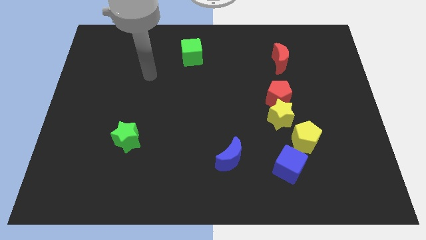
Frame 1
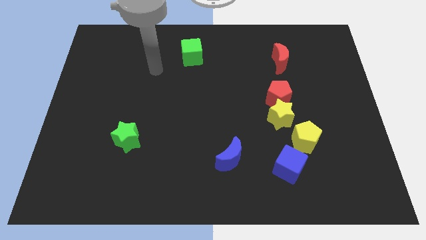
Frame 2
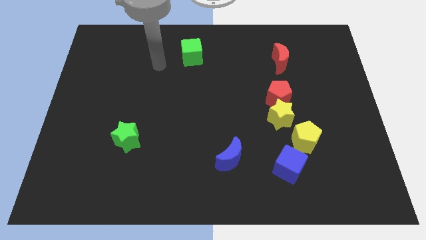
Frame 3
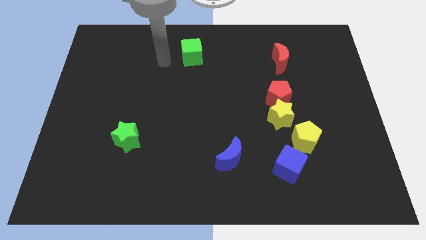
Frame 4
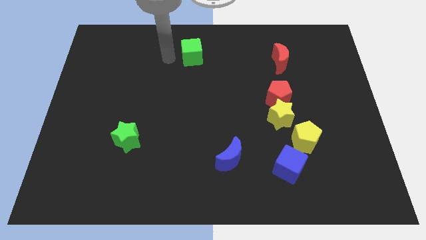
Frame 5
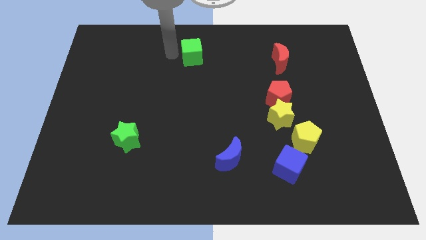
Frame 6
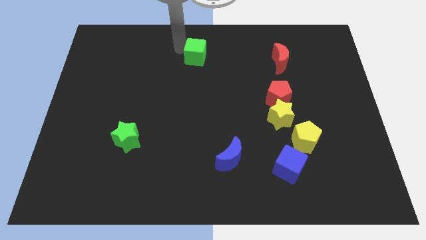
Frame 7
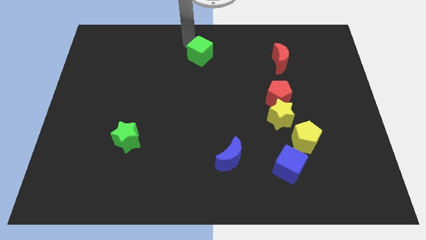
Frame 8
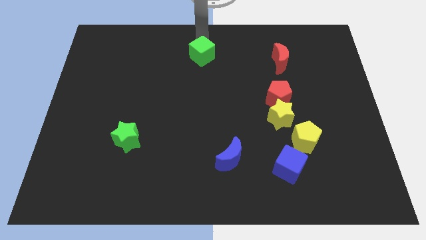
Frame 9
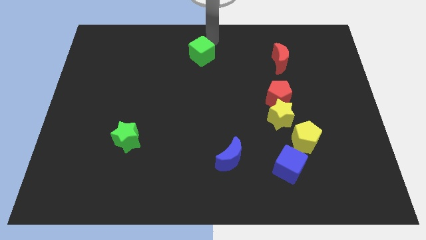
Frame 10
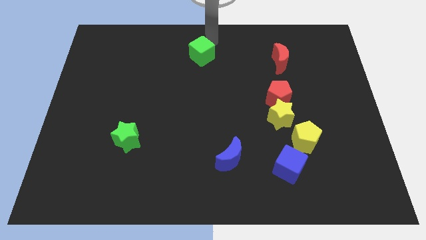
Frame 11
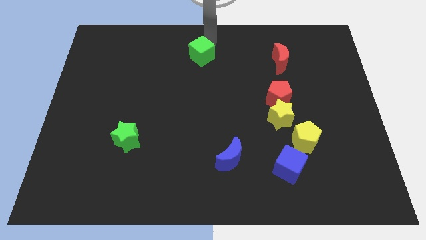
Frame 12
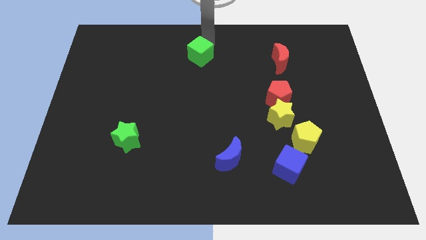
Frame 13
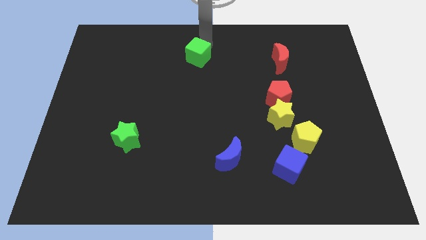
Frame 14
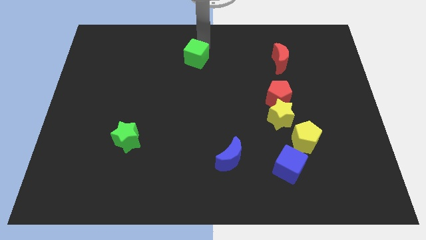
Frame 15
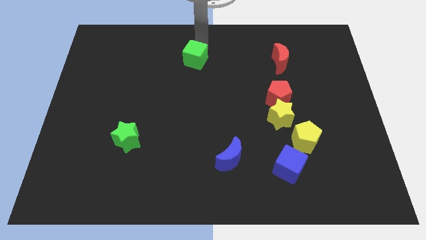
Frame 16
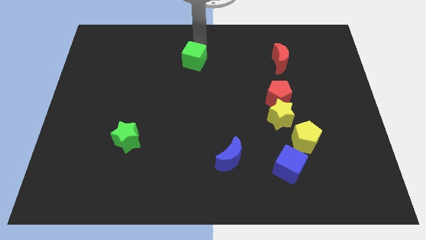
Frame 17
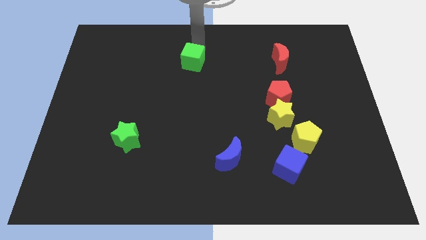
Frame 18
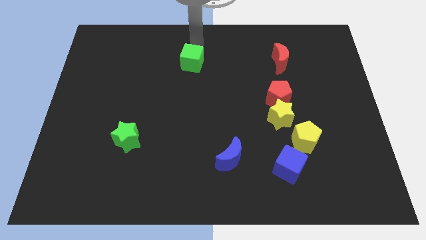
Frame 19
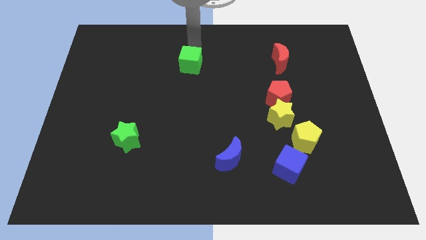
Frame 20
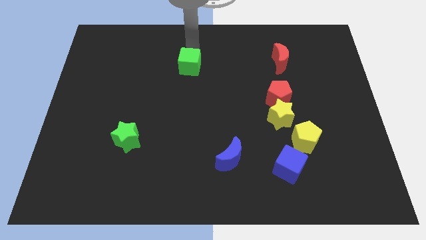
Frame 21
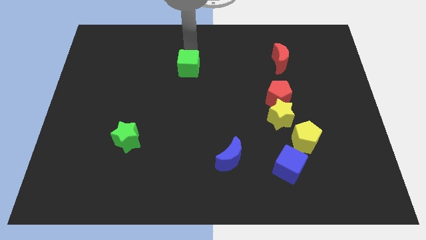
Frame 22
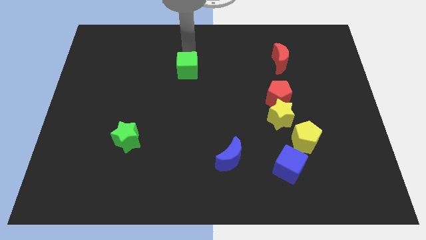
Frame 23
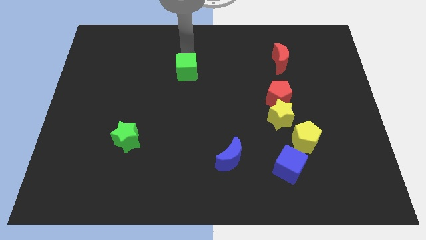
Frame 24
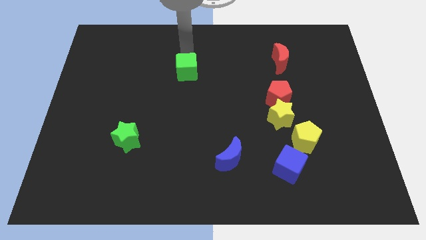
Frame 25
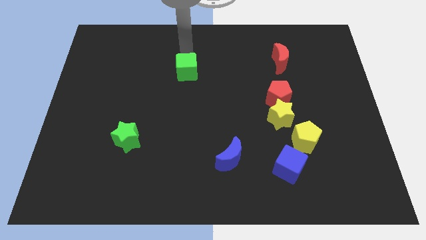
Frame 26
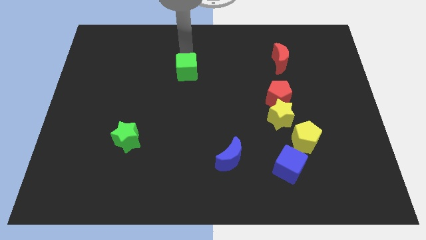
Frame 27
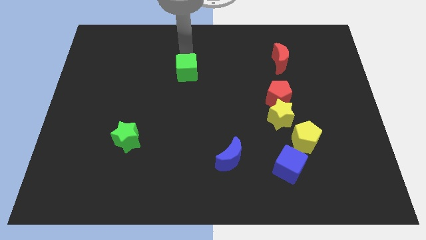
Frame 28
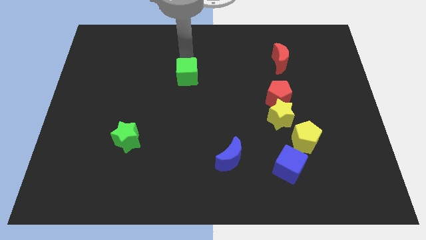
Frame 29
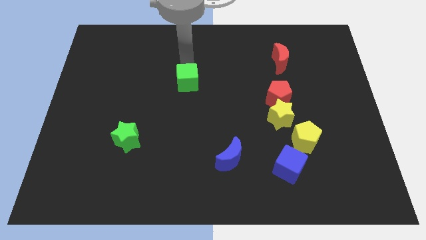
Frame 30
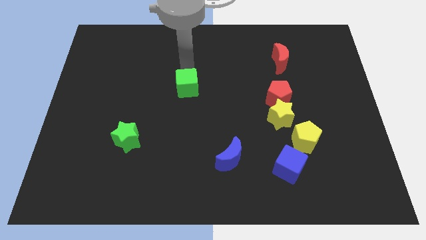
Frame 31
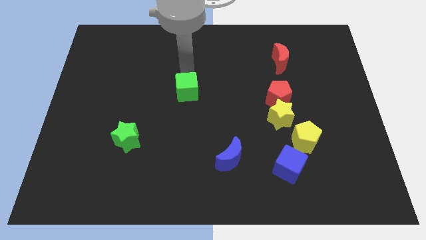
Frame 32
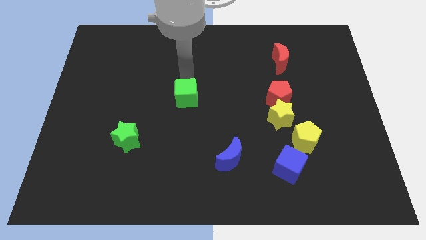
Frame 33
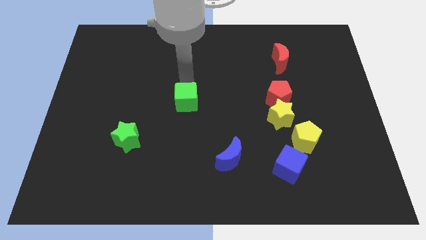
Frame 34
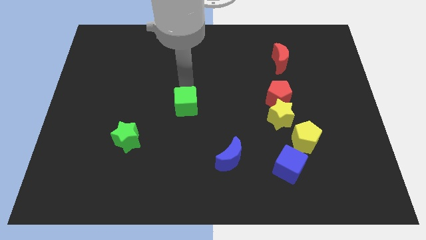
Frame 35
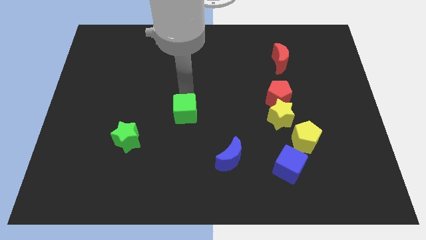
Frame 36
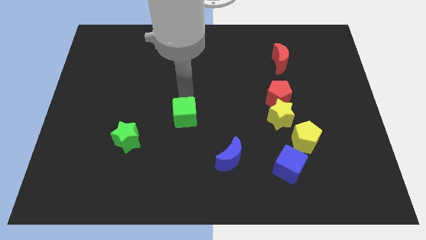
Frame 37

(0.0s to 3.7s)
move the green cube downwards

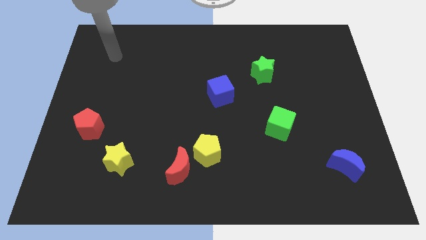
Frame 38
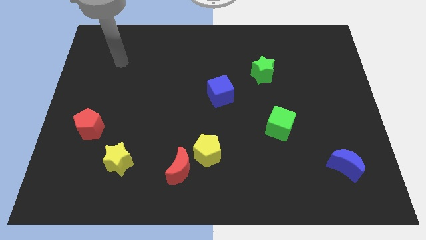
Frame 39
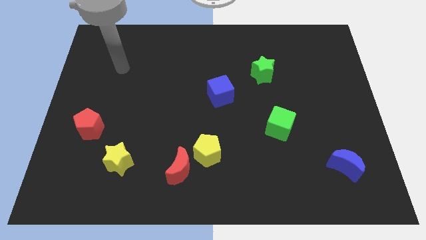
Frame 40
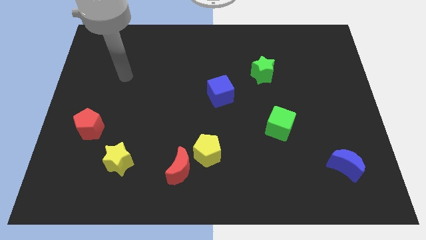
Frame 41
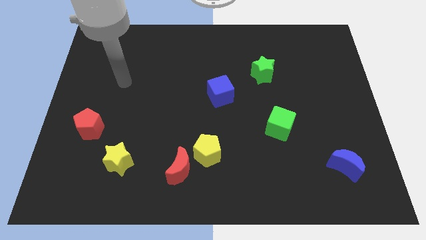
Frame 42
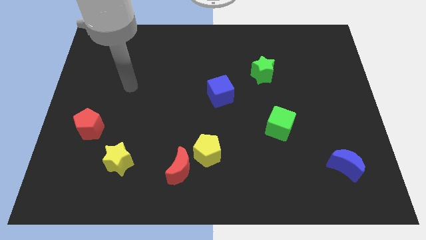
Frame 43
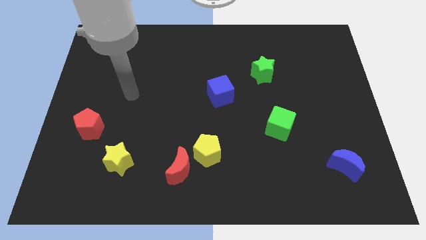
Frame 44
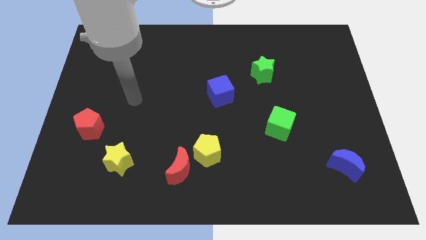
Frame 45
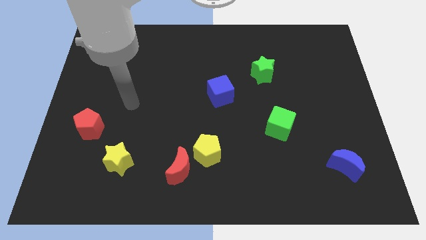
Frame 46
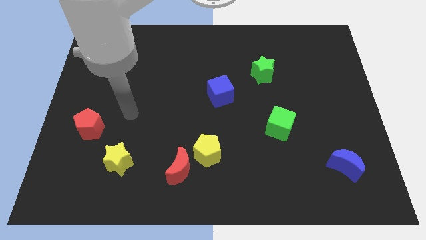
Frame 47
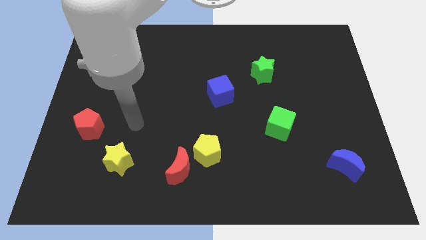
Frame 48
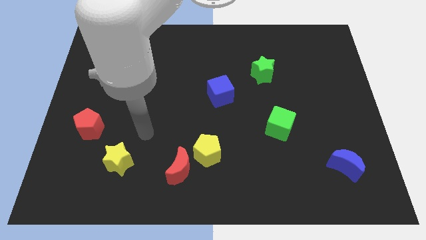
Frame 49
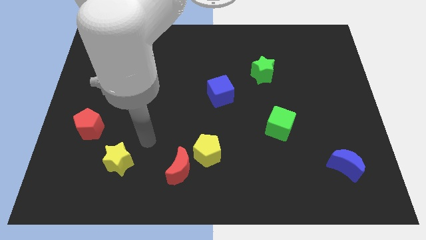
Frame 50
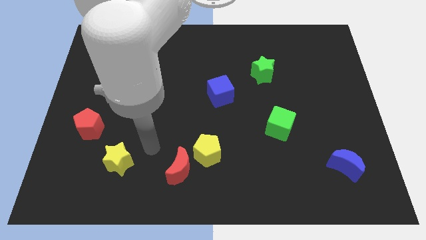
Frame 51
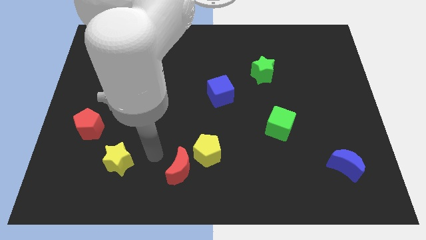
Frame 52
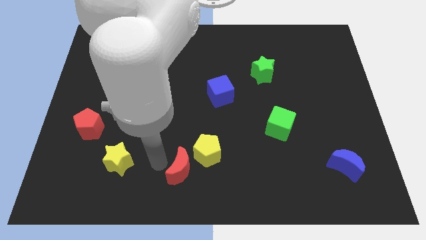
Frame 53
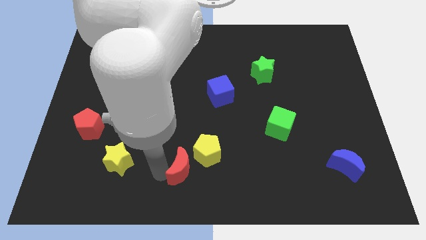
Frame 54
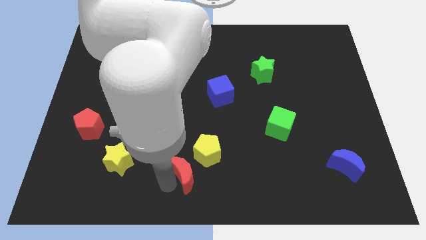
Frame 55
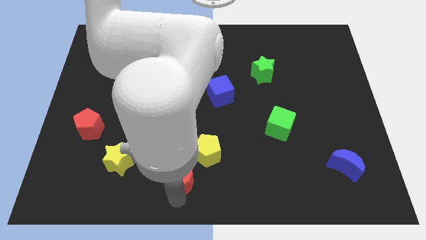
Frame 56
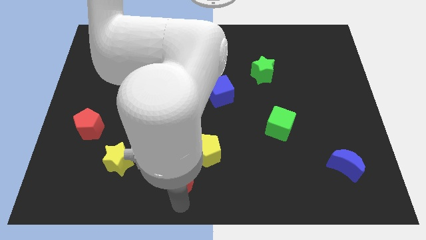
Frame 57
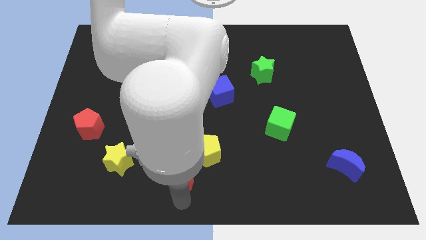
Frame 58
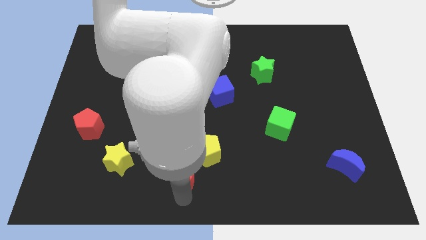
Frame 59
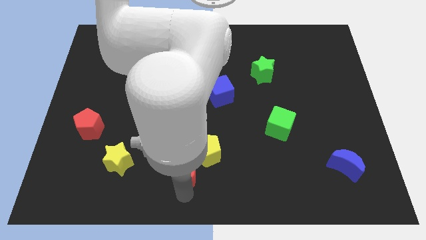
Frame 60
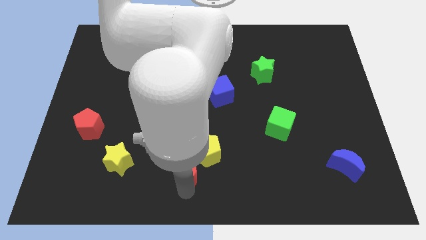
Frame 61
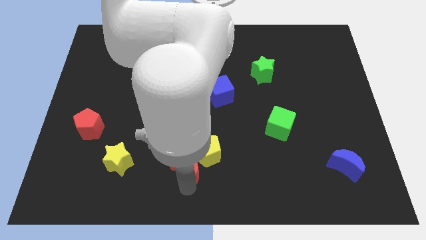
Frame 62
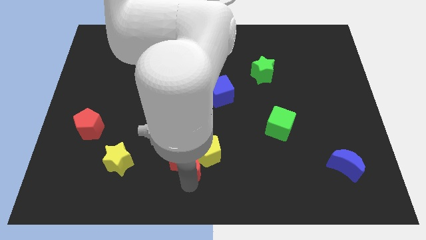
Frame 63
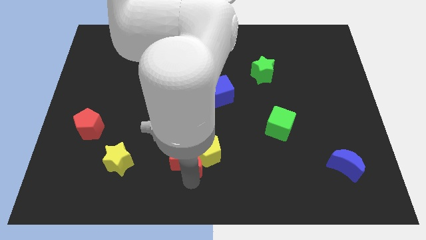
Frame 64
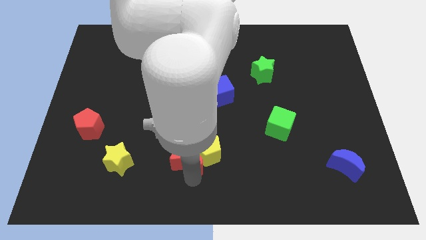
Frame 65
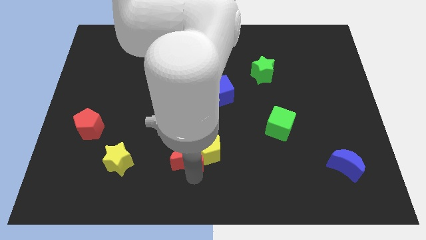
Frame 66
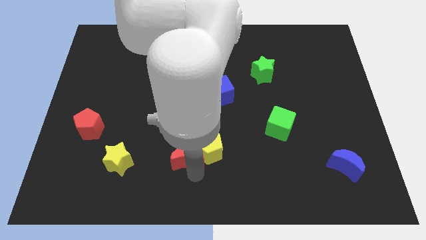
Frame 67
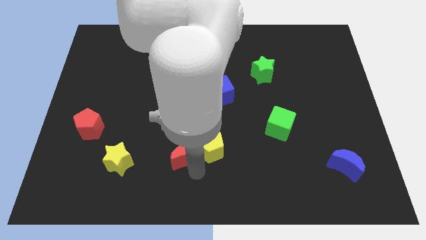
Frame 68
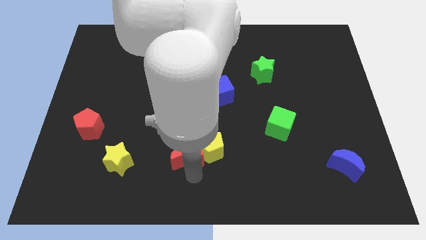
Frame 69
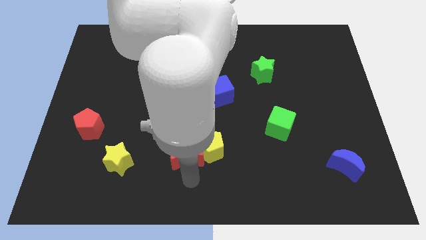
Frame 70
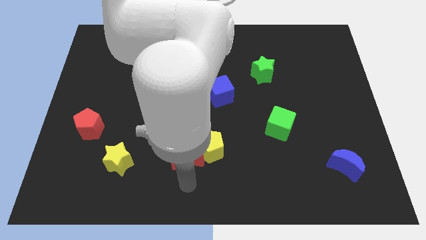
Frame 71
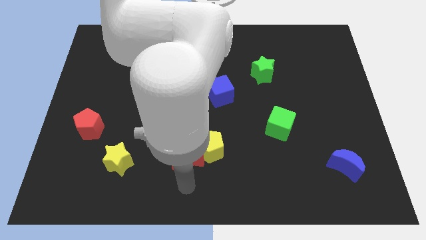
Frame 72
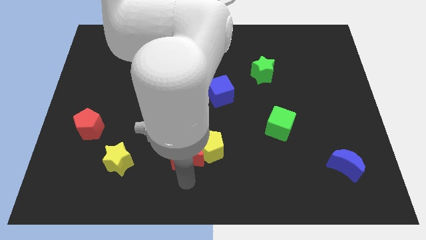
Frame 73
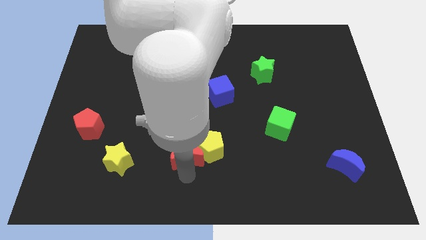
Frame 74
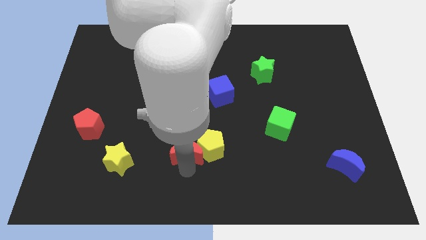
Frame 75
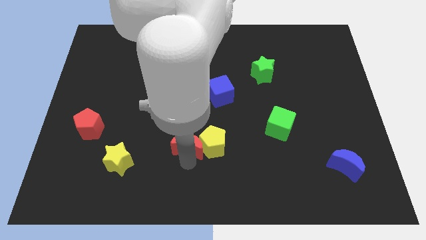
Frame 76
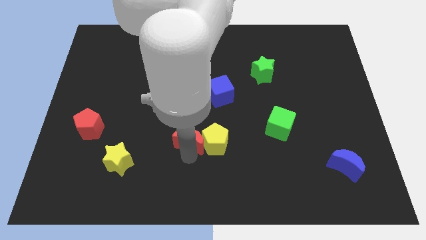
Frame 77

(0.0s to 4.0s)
slightly move the red moon upwards

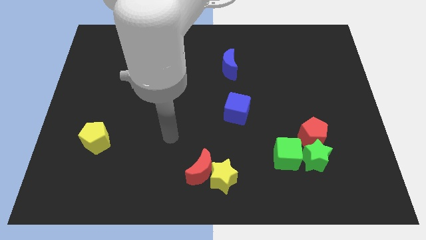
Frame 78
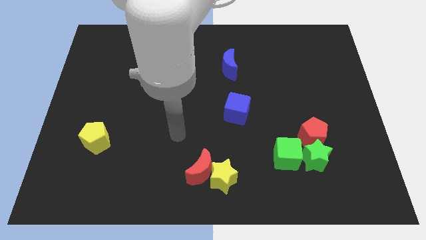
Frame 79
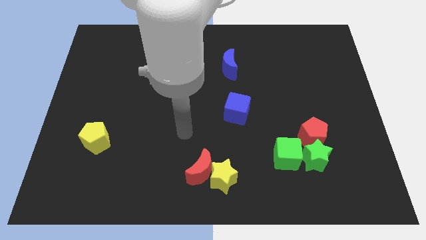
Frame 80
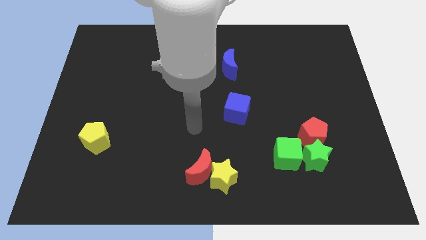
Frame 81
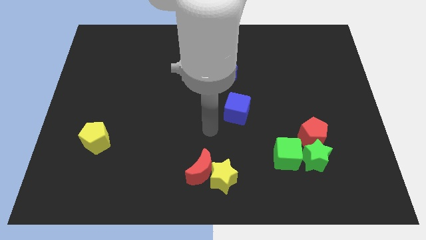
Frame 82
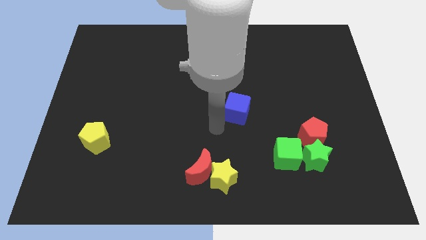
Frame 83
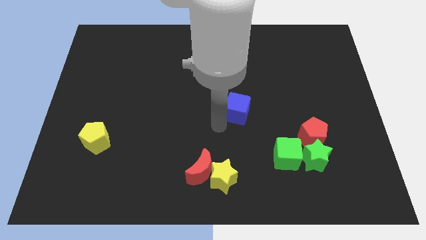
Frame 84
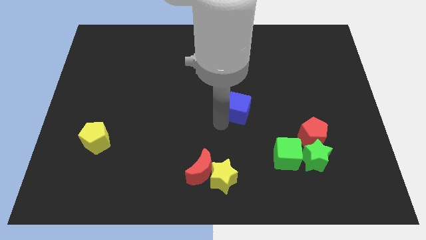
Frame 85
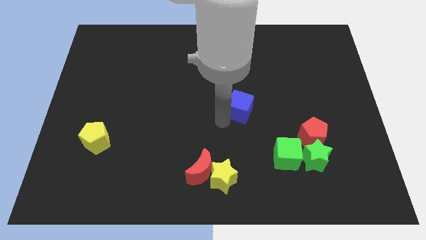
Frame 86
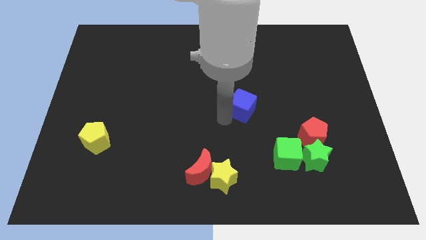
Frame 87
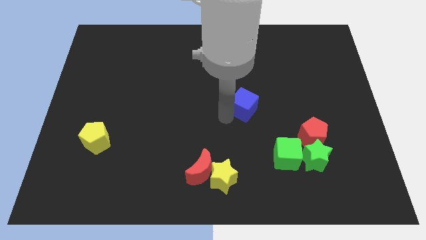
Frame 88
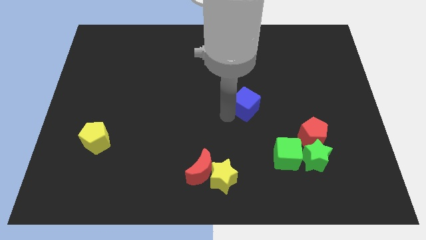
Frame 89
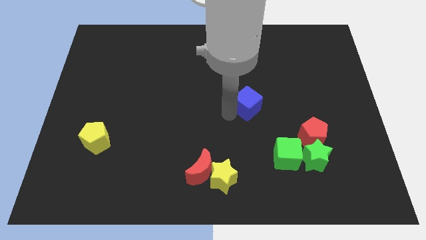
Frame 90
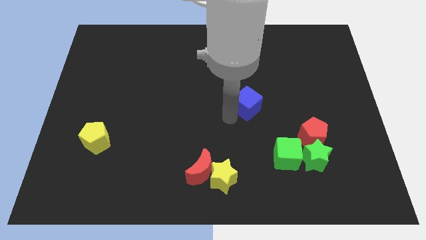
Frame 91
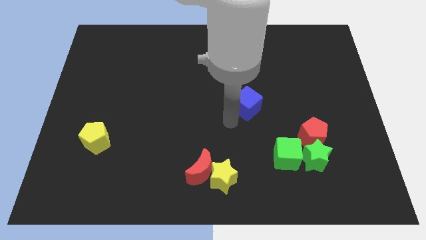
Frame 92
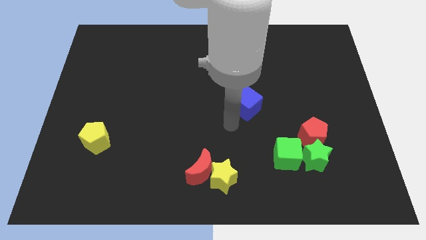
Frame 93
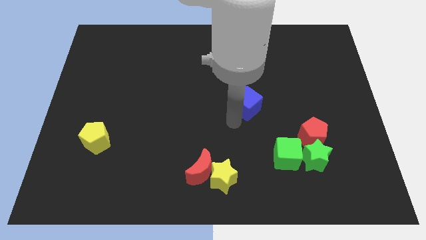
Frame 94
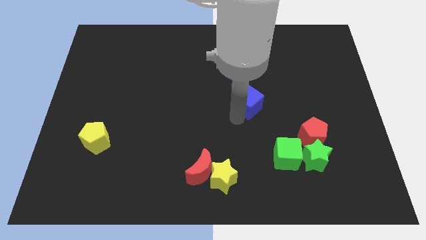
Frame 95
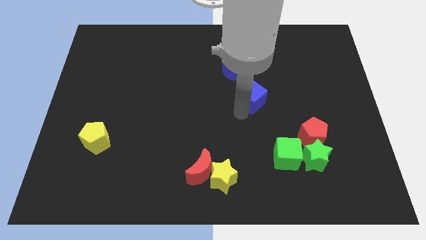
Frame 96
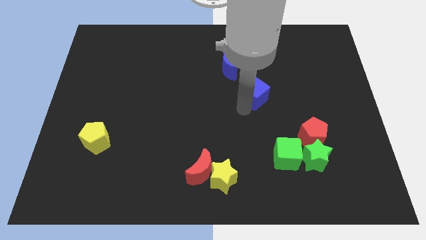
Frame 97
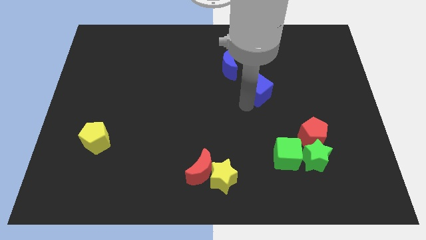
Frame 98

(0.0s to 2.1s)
slightly slide the blue cube up and right
